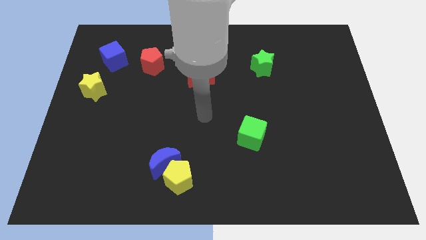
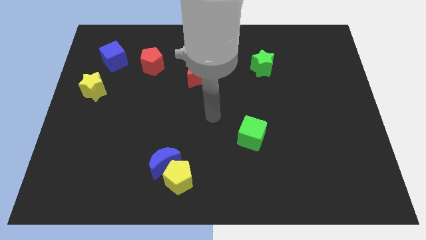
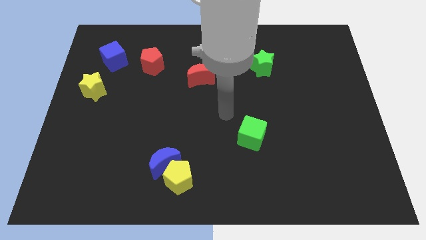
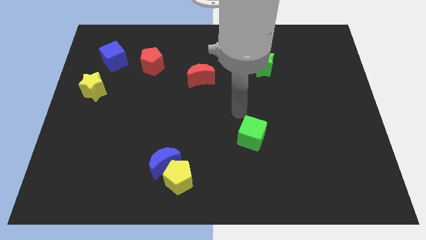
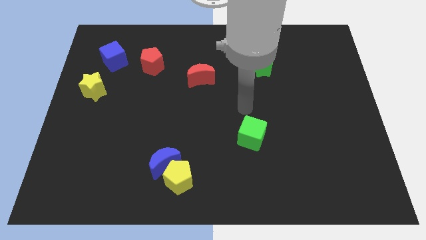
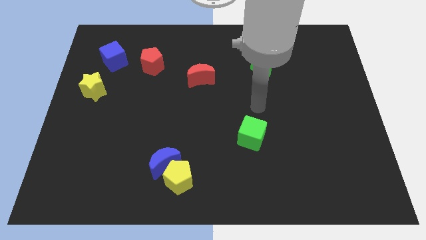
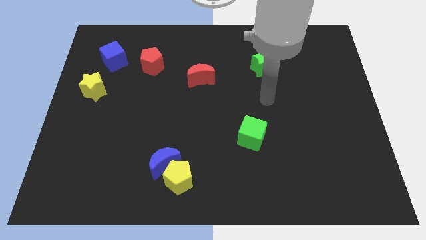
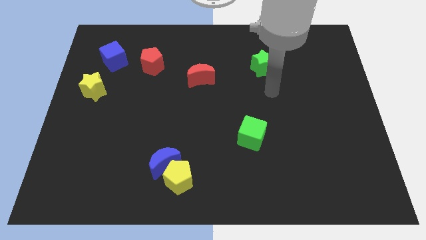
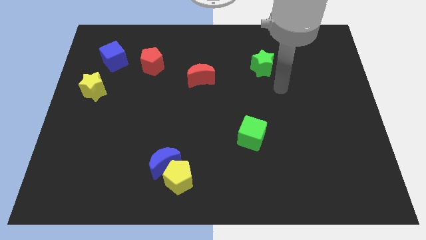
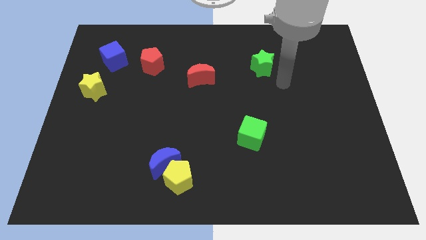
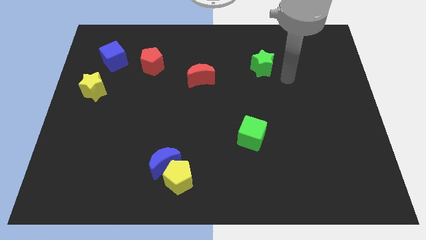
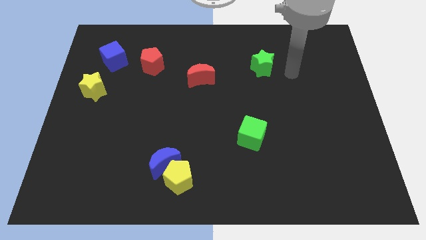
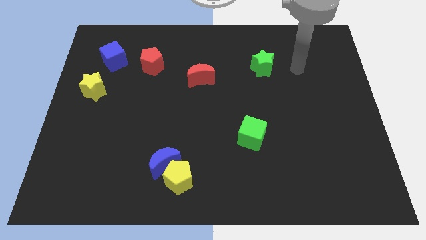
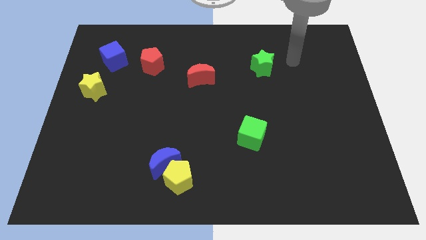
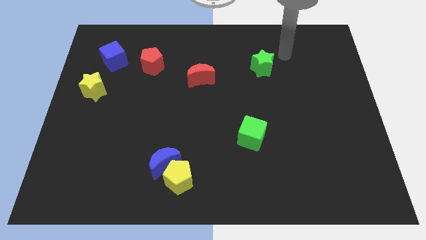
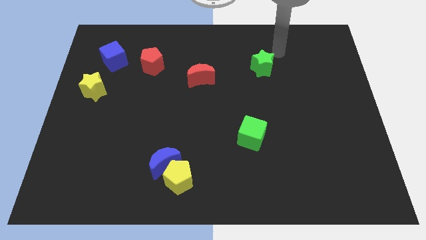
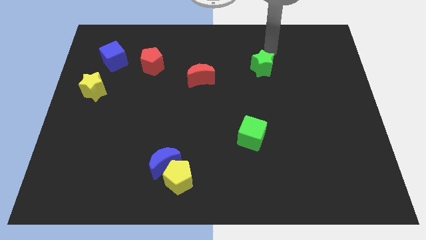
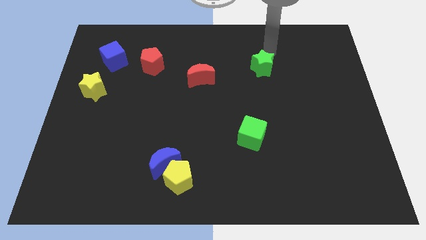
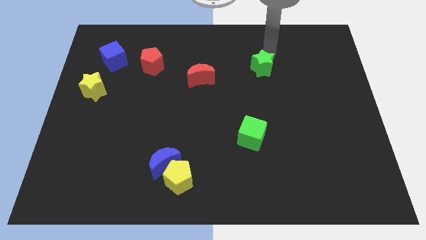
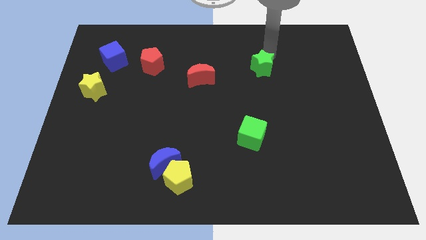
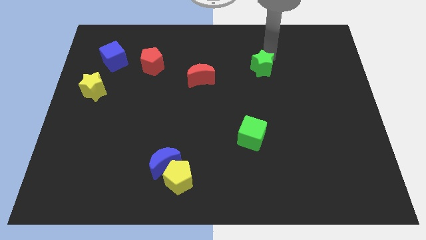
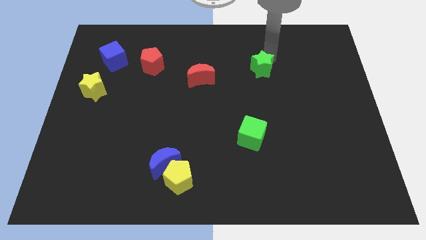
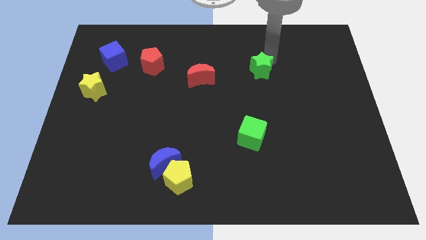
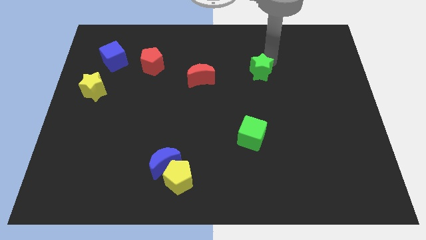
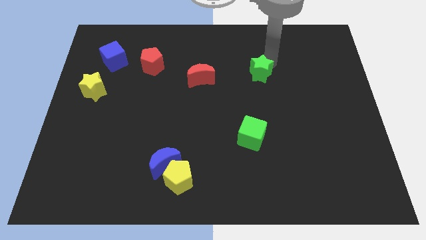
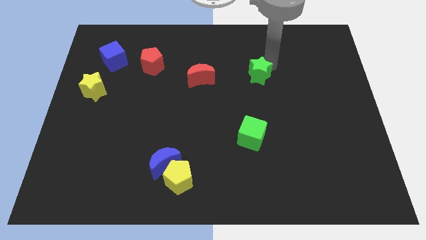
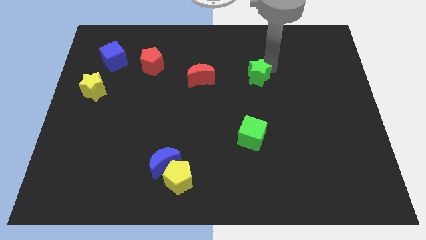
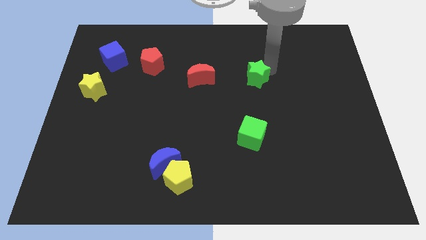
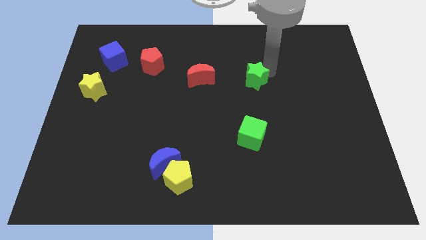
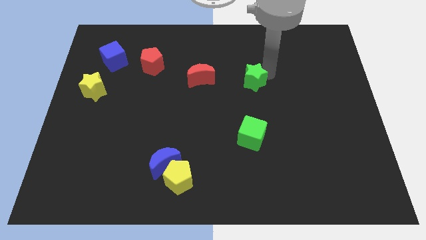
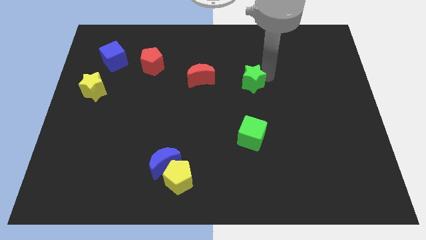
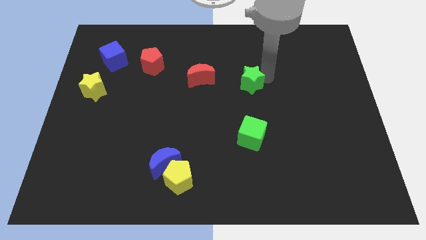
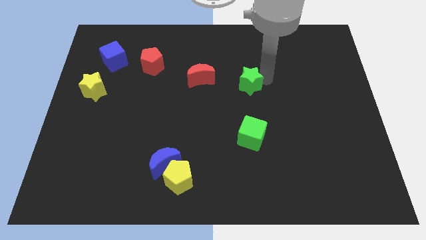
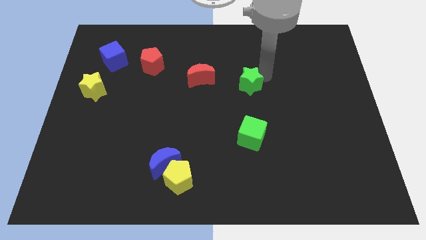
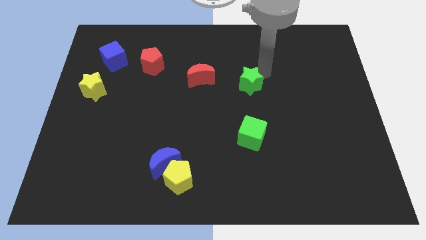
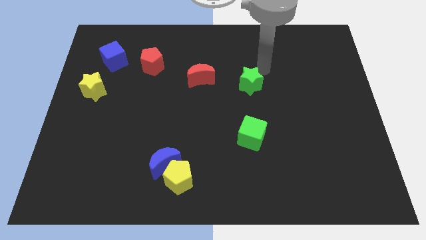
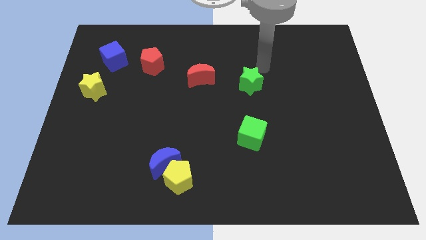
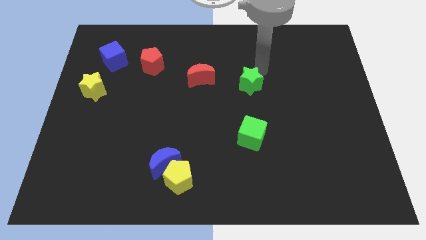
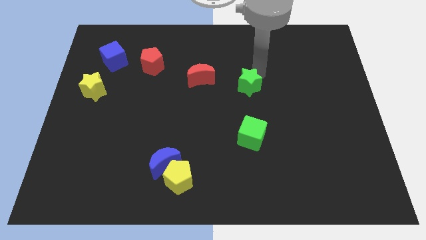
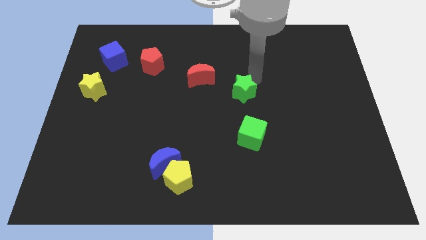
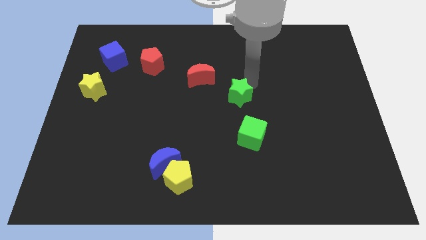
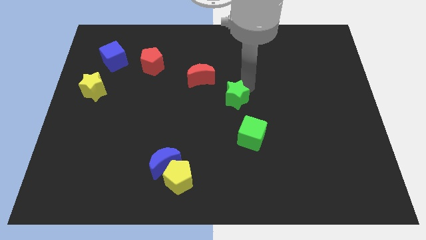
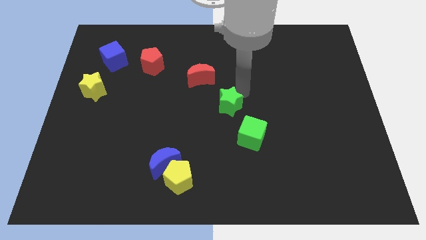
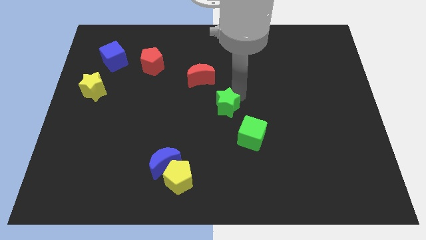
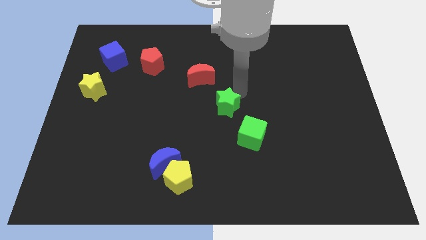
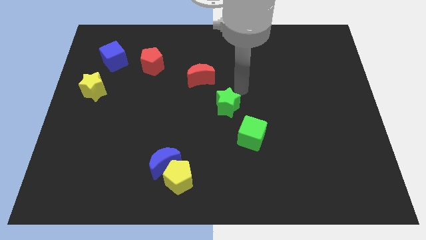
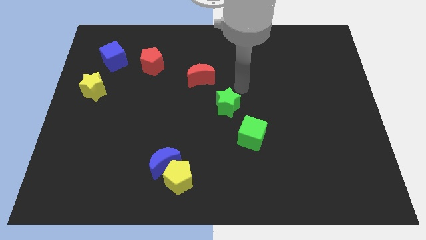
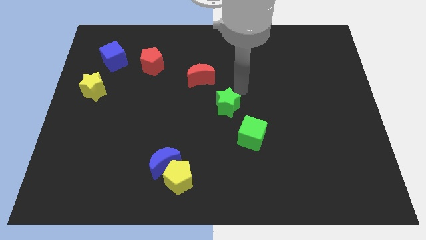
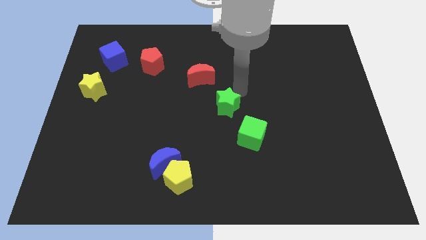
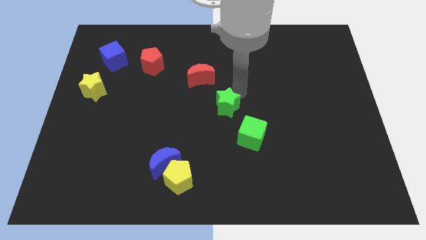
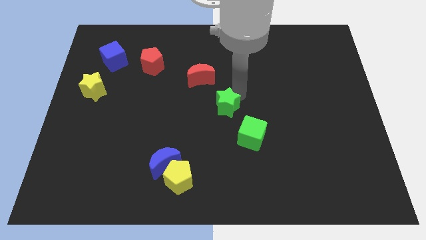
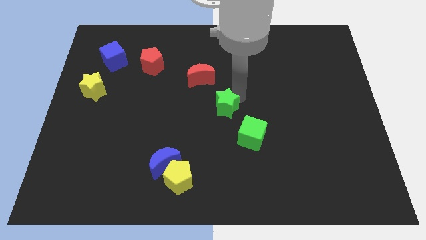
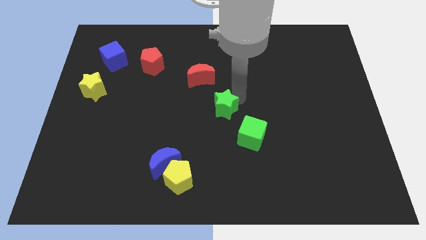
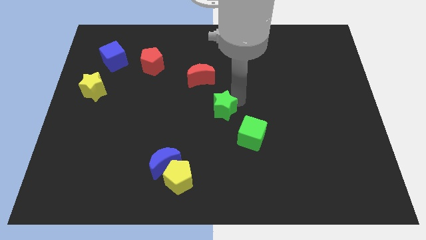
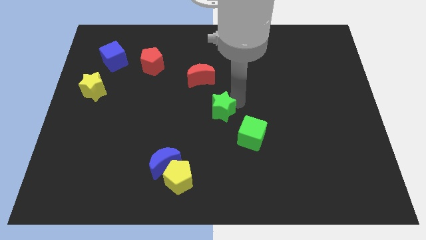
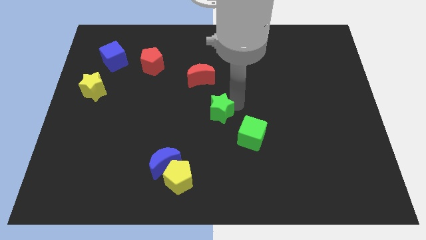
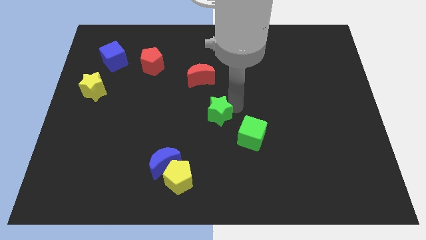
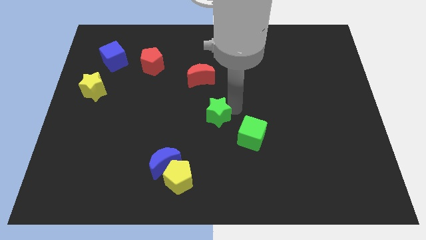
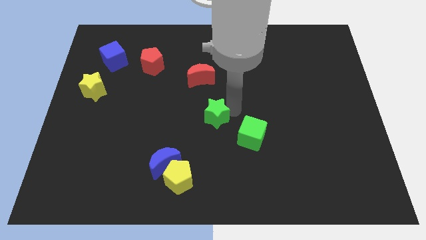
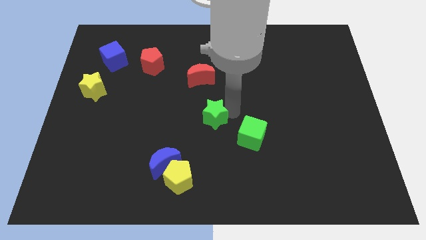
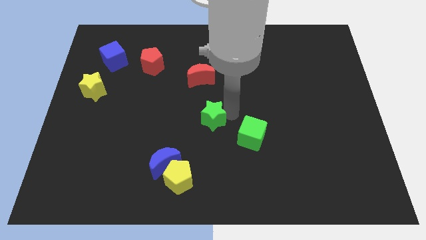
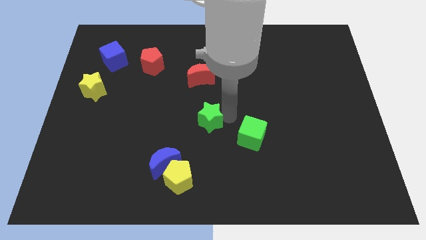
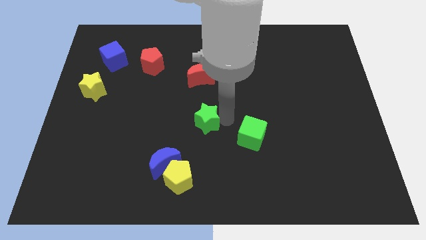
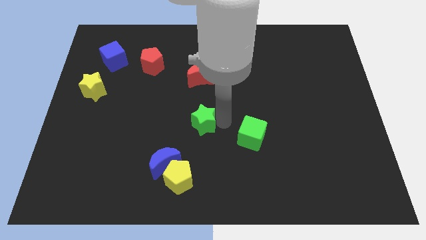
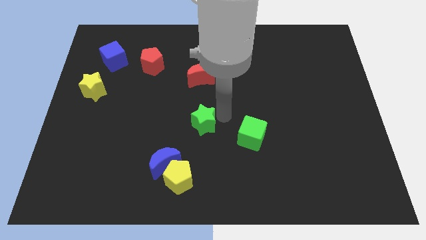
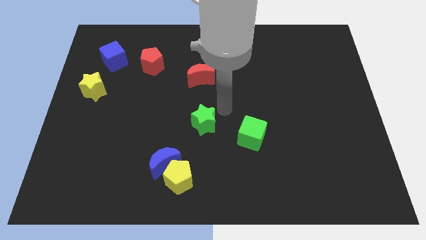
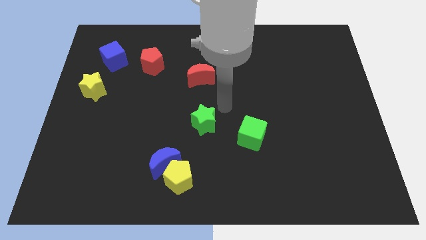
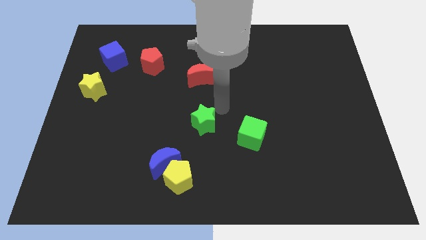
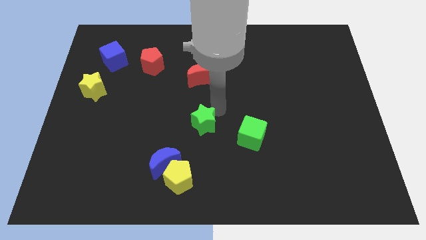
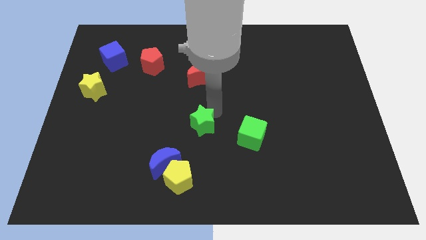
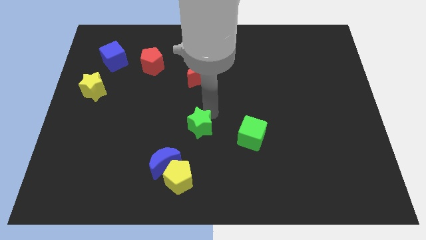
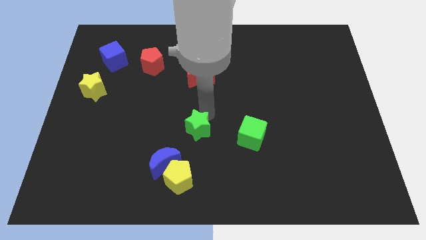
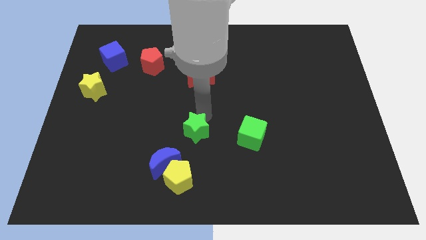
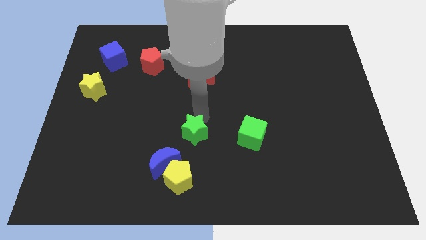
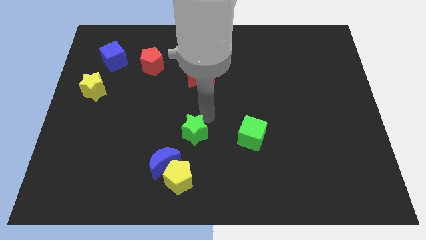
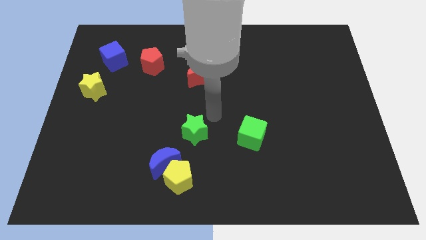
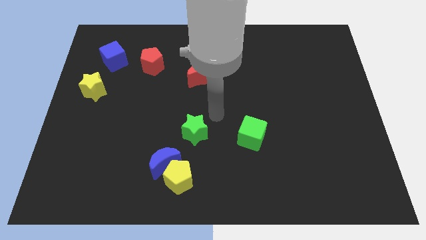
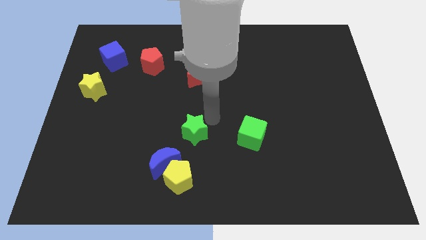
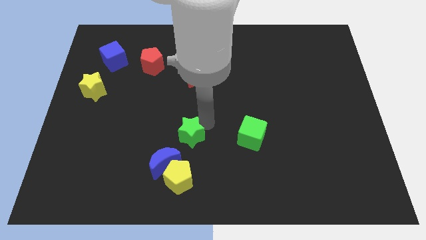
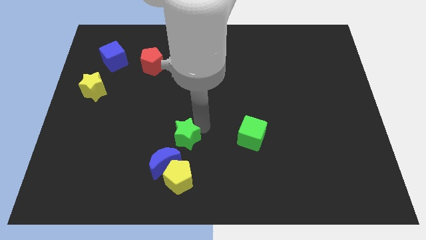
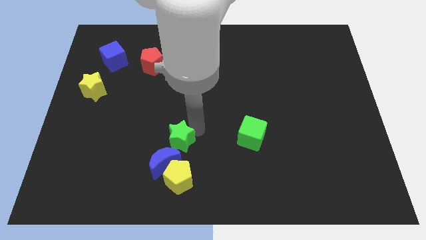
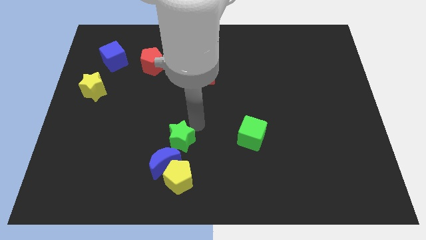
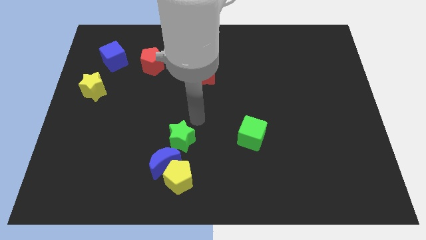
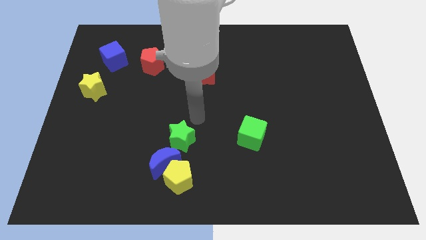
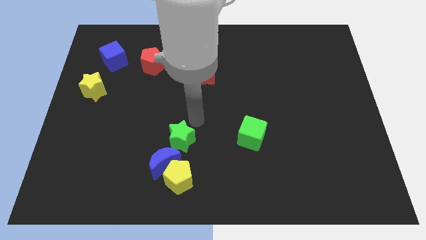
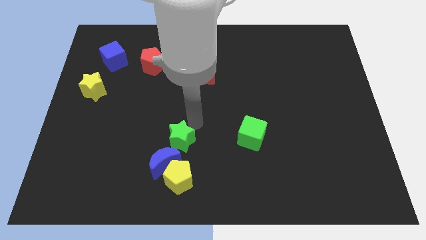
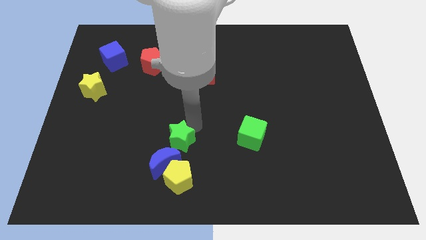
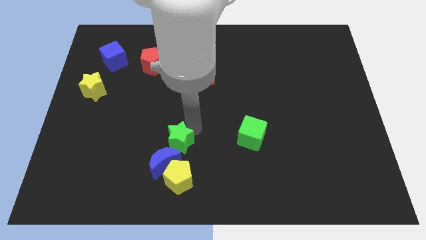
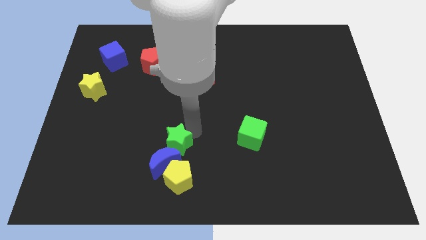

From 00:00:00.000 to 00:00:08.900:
push the green star towards the blue moon
